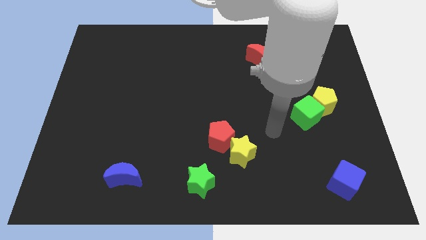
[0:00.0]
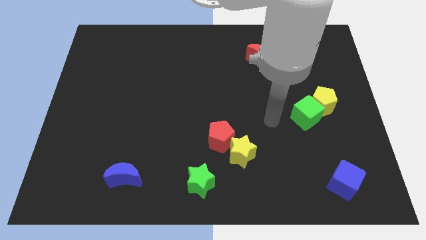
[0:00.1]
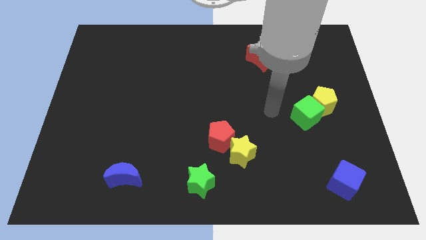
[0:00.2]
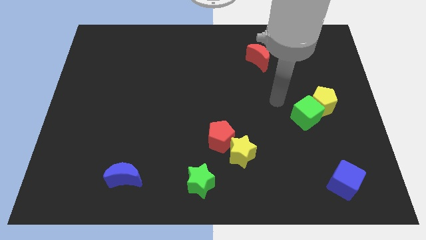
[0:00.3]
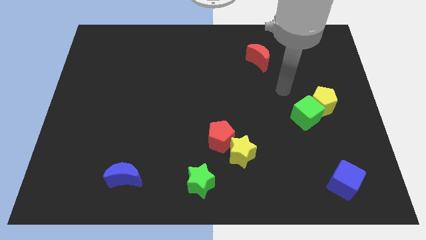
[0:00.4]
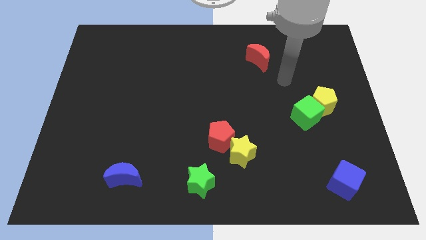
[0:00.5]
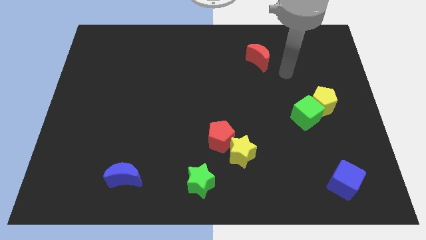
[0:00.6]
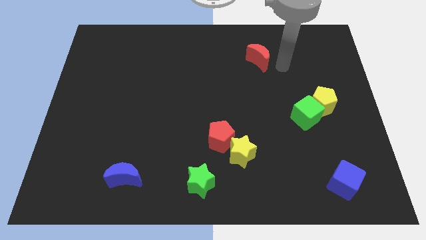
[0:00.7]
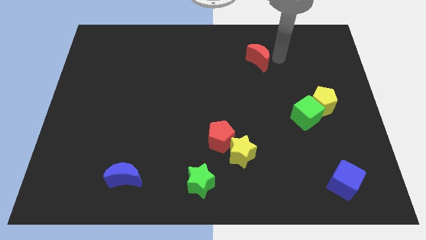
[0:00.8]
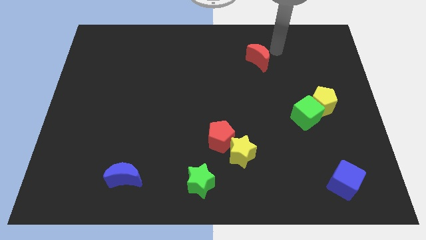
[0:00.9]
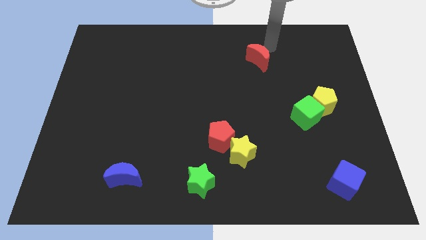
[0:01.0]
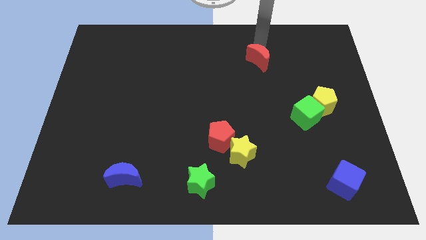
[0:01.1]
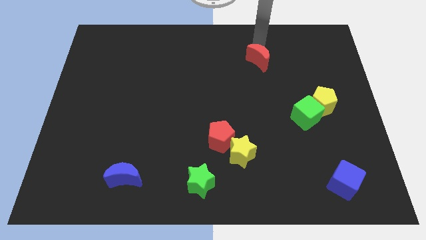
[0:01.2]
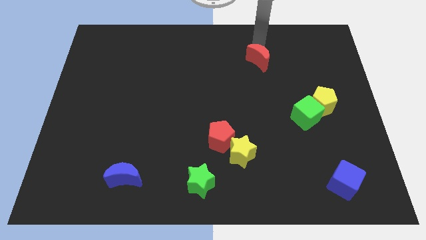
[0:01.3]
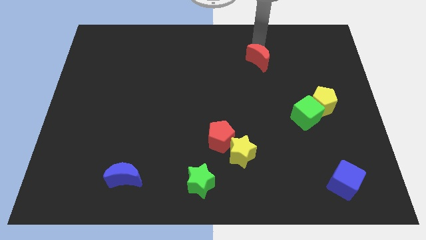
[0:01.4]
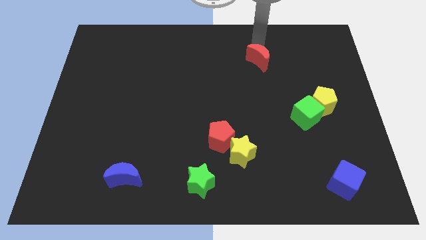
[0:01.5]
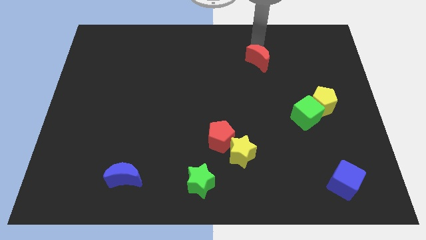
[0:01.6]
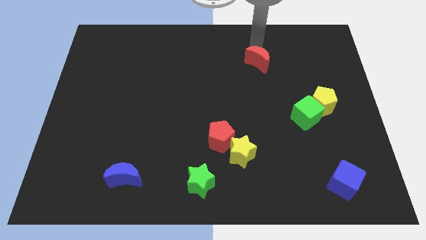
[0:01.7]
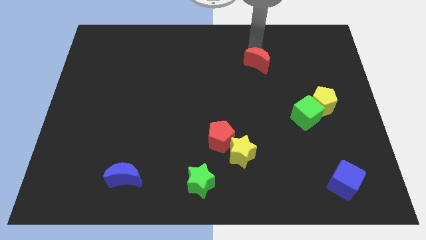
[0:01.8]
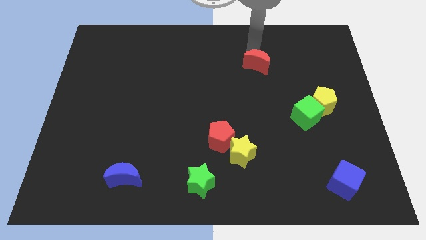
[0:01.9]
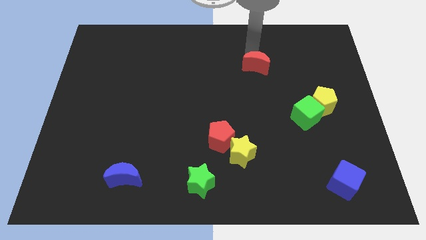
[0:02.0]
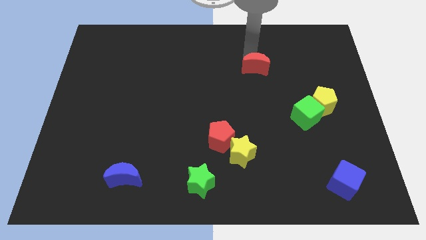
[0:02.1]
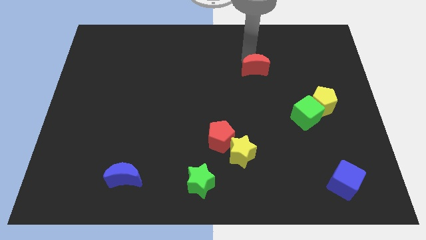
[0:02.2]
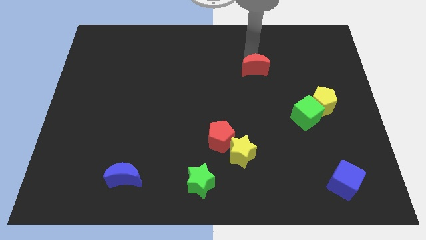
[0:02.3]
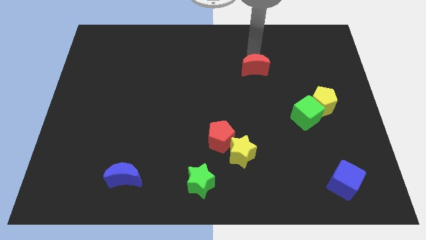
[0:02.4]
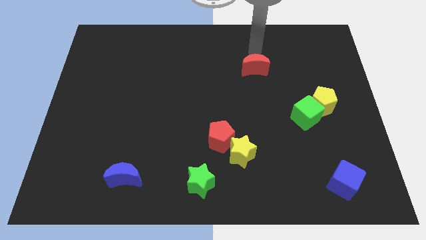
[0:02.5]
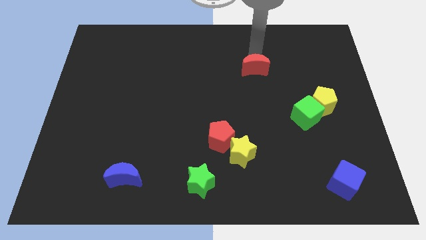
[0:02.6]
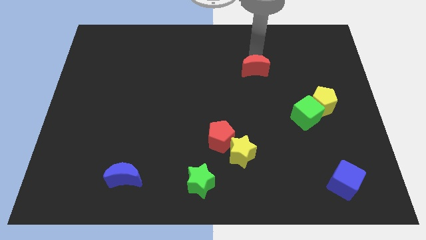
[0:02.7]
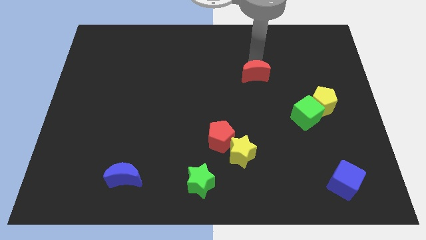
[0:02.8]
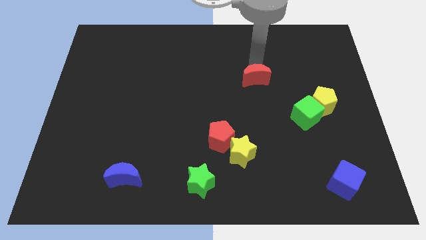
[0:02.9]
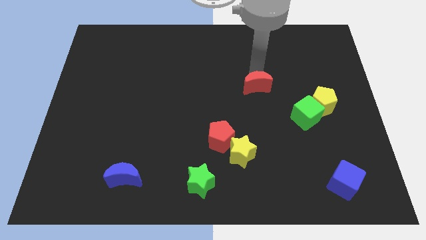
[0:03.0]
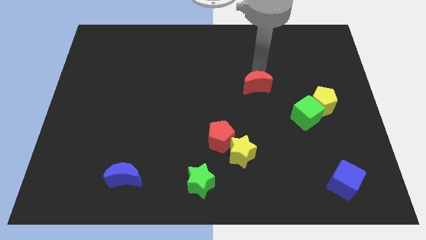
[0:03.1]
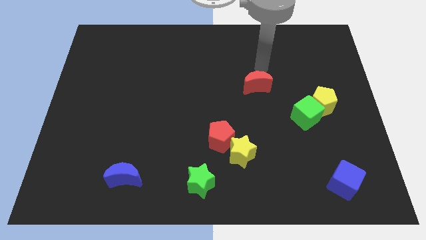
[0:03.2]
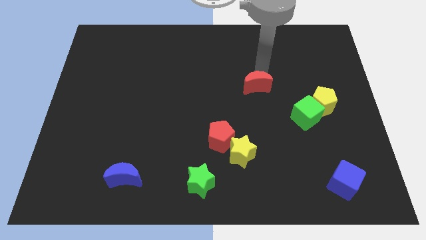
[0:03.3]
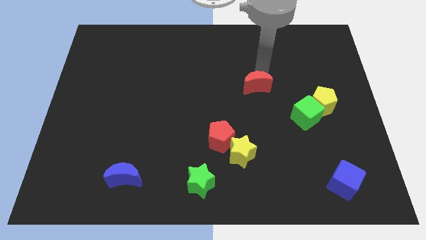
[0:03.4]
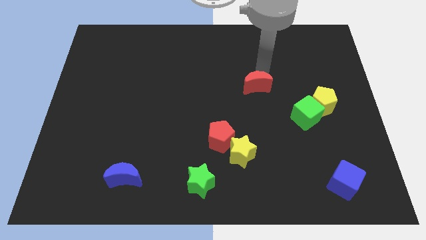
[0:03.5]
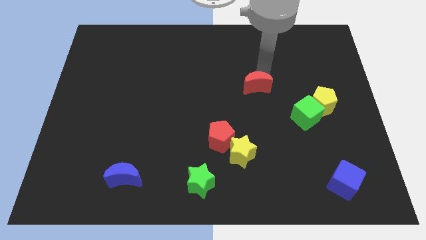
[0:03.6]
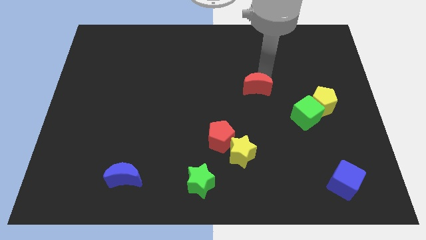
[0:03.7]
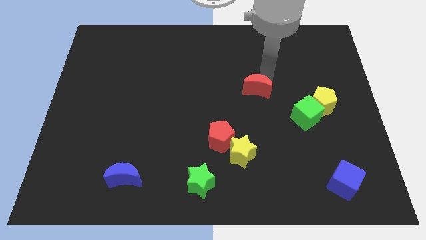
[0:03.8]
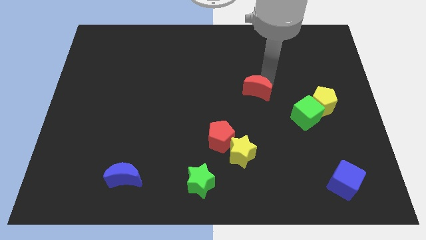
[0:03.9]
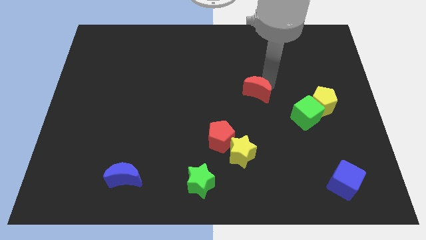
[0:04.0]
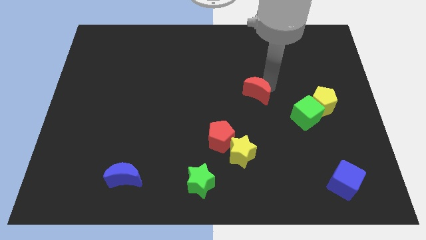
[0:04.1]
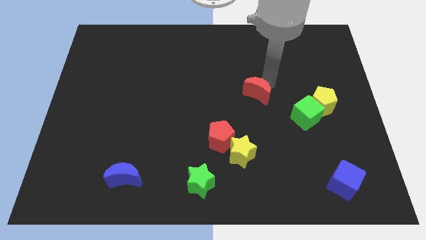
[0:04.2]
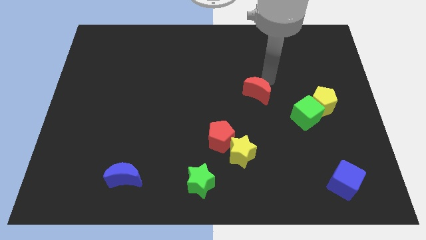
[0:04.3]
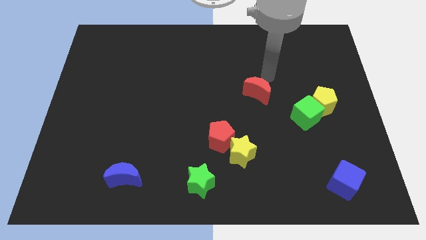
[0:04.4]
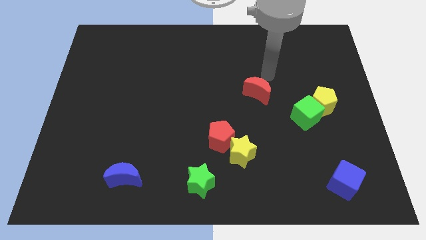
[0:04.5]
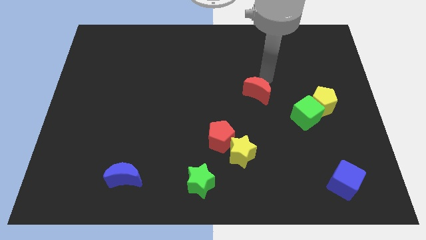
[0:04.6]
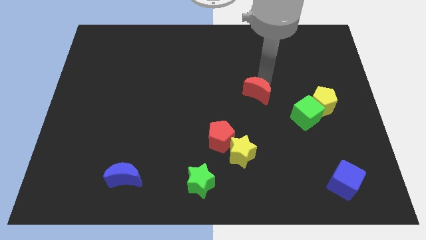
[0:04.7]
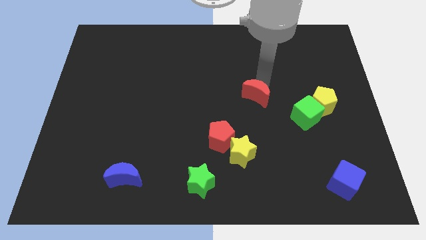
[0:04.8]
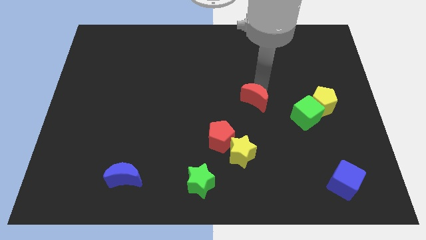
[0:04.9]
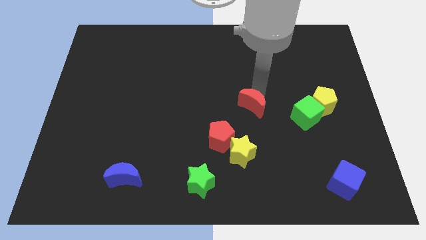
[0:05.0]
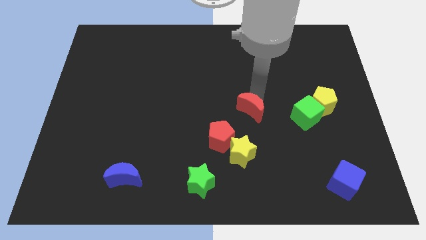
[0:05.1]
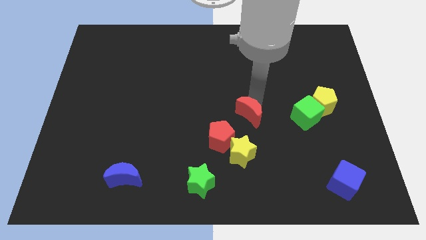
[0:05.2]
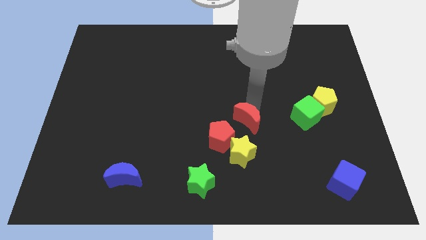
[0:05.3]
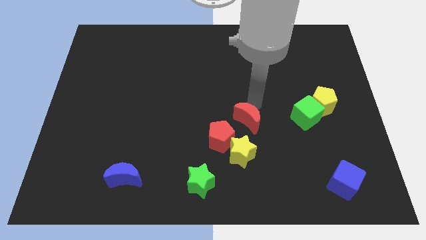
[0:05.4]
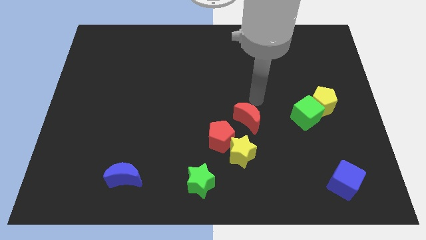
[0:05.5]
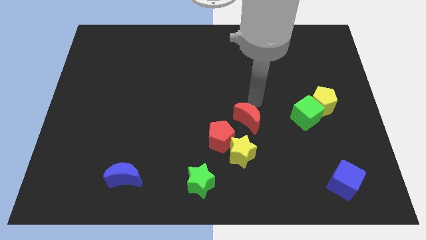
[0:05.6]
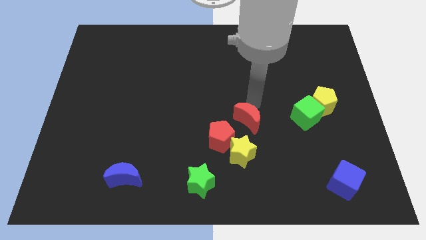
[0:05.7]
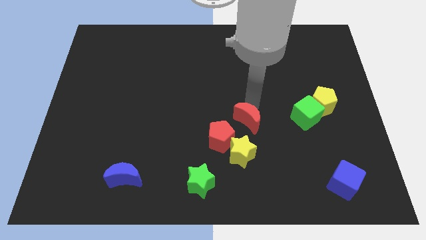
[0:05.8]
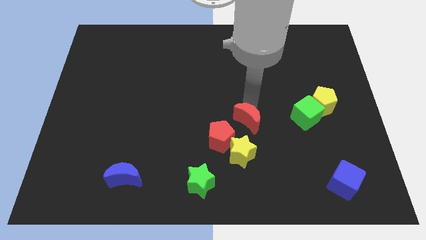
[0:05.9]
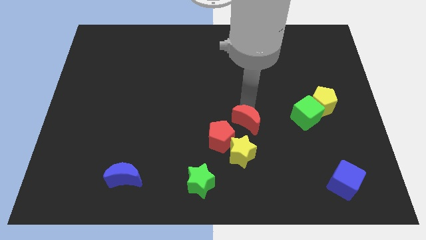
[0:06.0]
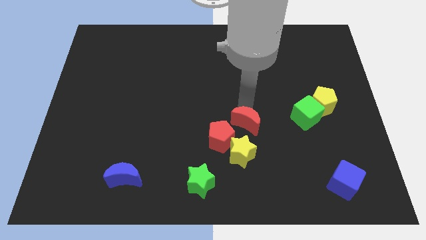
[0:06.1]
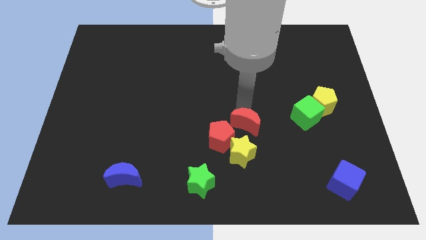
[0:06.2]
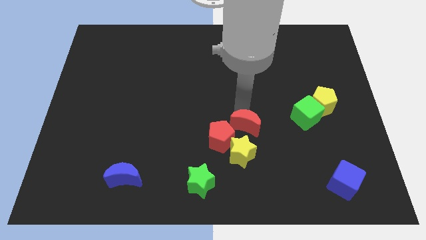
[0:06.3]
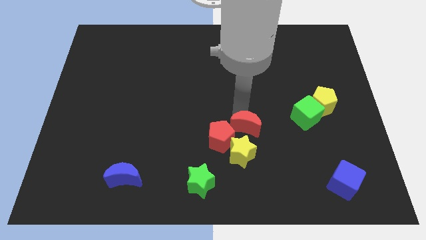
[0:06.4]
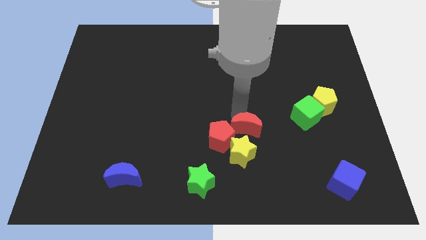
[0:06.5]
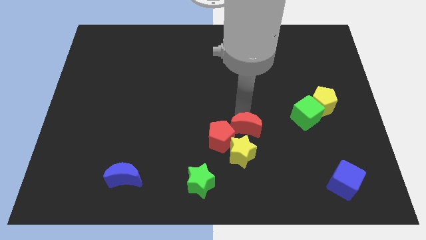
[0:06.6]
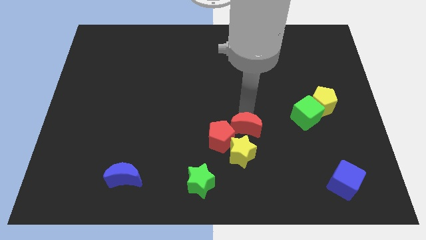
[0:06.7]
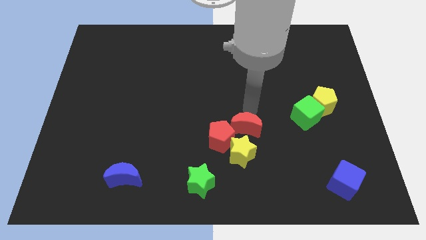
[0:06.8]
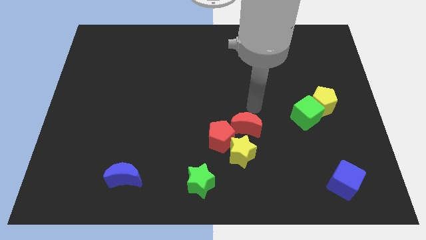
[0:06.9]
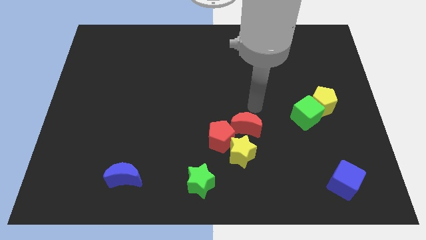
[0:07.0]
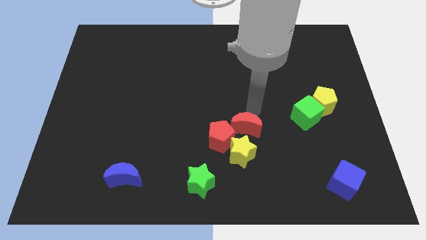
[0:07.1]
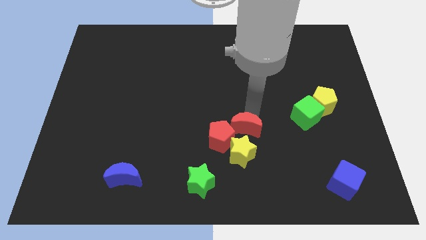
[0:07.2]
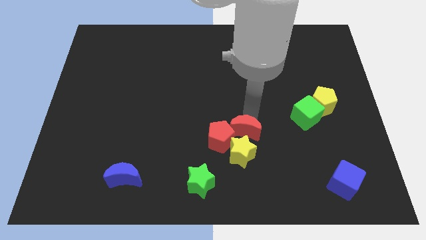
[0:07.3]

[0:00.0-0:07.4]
put the red moon towards the yellow star
